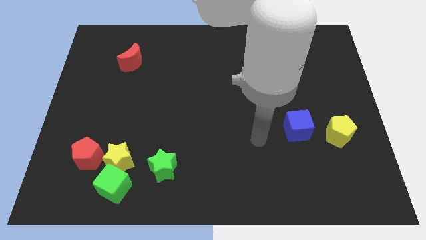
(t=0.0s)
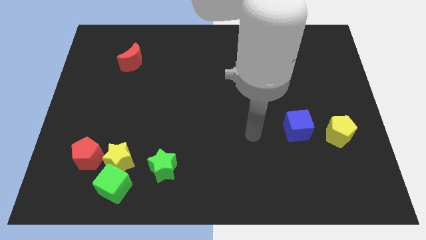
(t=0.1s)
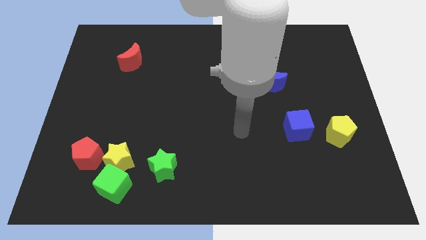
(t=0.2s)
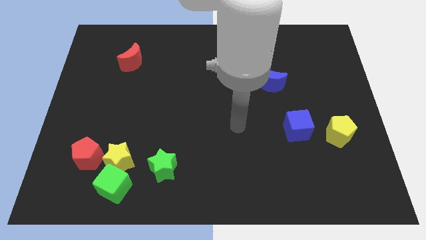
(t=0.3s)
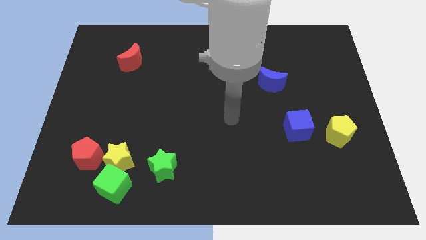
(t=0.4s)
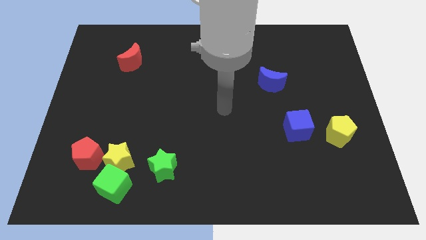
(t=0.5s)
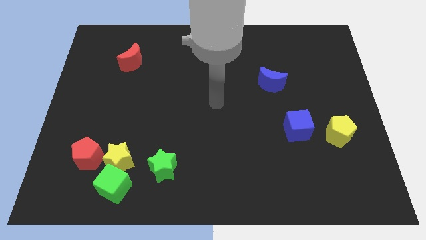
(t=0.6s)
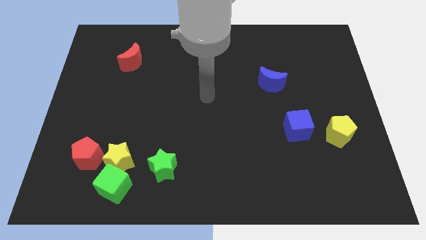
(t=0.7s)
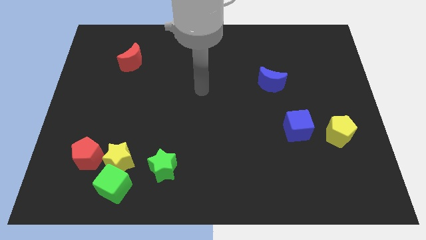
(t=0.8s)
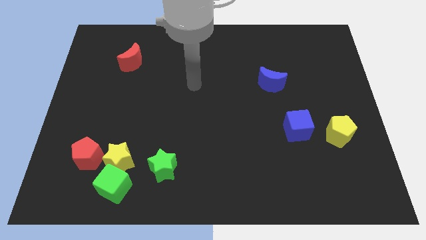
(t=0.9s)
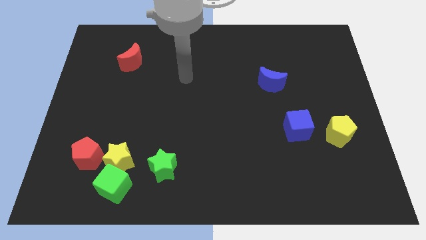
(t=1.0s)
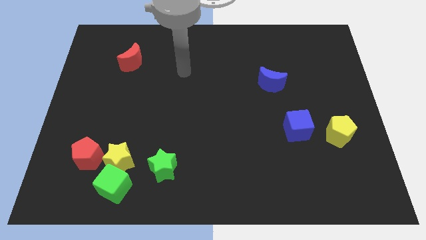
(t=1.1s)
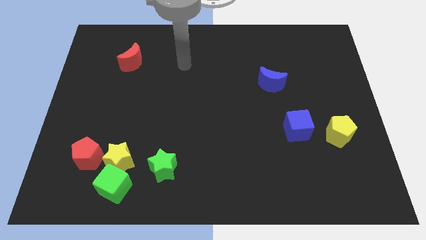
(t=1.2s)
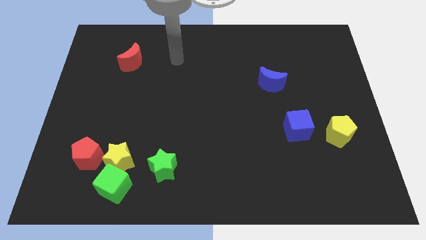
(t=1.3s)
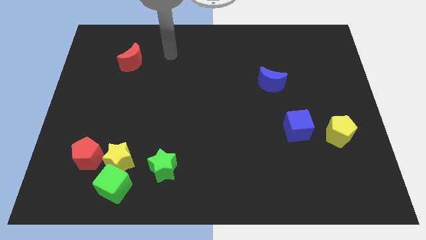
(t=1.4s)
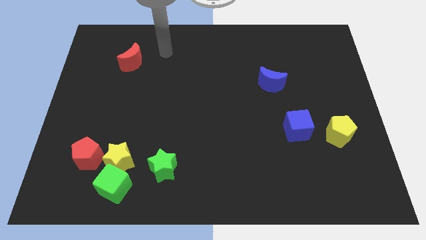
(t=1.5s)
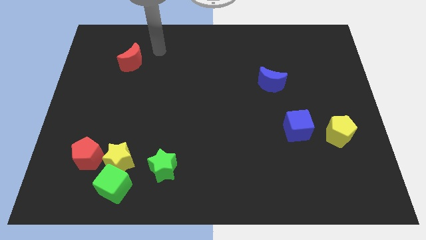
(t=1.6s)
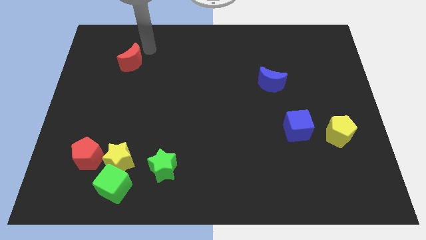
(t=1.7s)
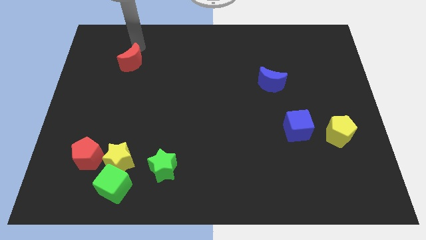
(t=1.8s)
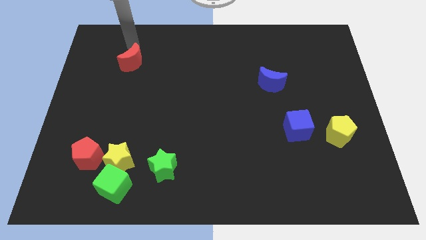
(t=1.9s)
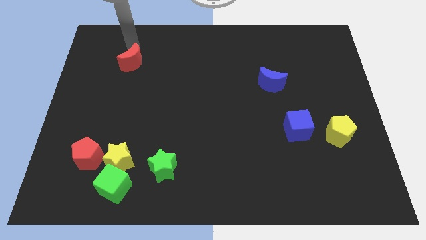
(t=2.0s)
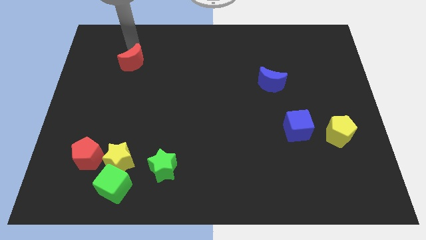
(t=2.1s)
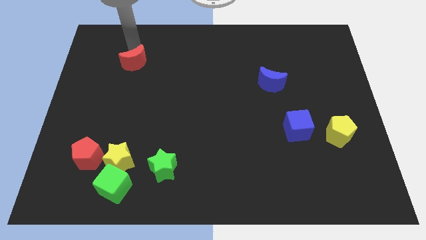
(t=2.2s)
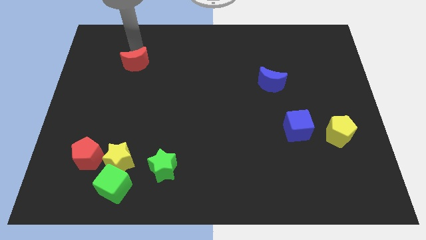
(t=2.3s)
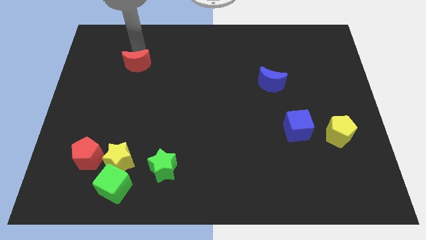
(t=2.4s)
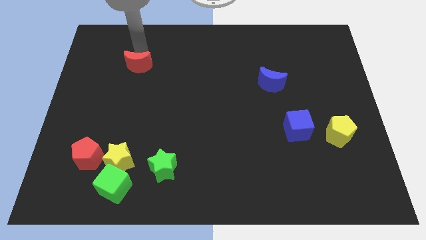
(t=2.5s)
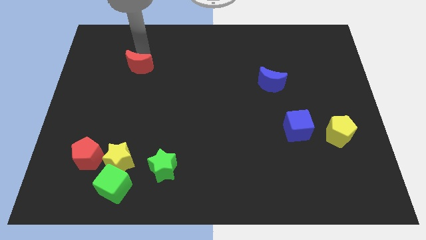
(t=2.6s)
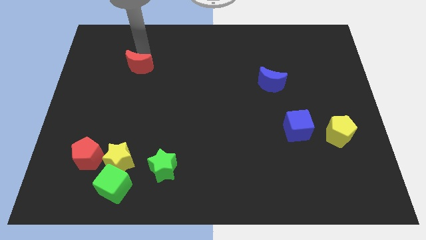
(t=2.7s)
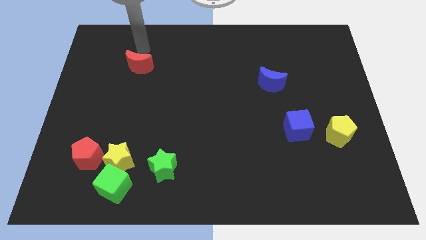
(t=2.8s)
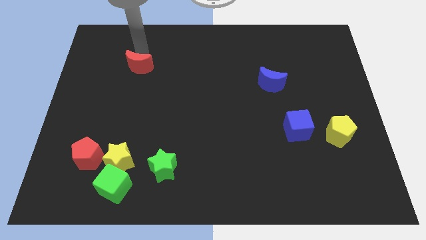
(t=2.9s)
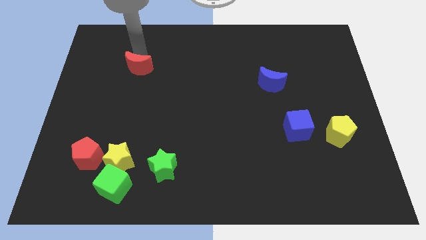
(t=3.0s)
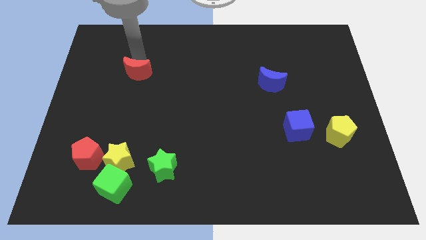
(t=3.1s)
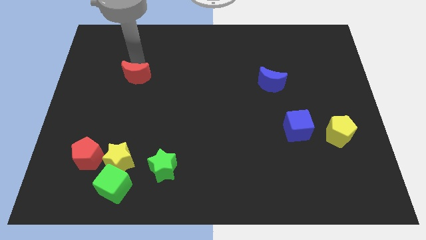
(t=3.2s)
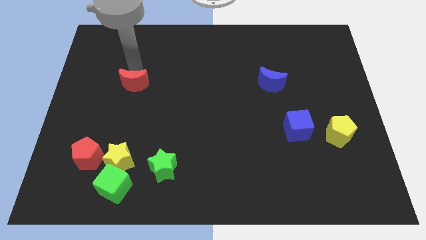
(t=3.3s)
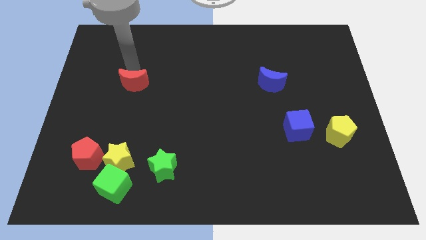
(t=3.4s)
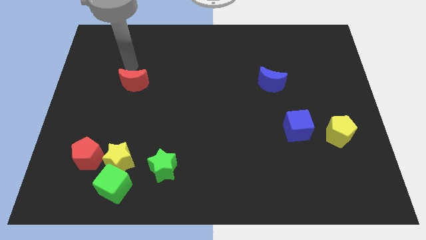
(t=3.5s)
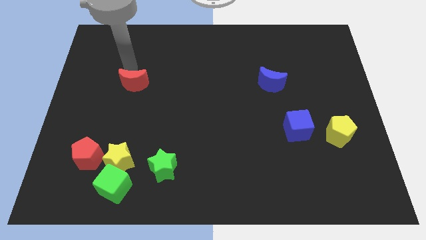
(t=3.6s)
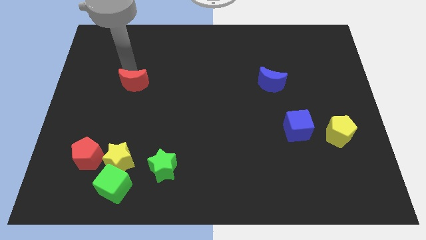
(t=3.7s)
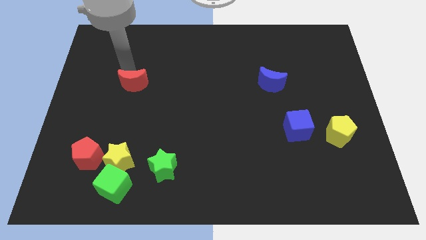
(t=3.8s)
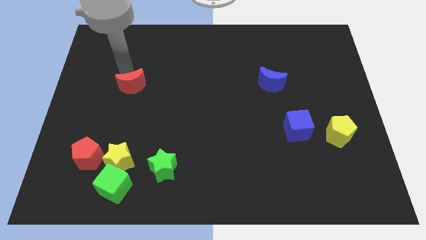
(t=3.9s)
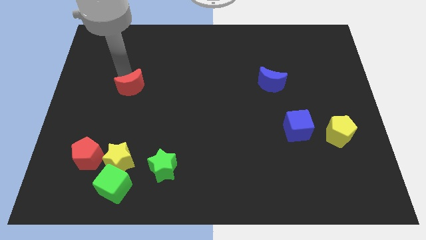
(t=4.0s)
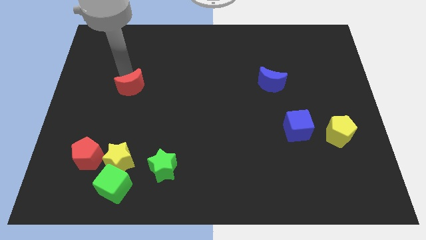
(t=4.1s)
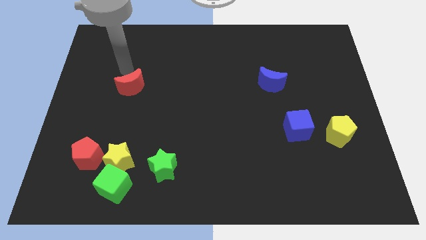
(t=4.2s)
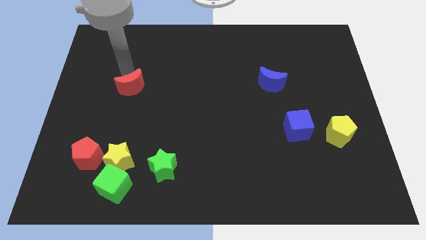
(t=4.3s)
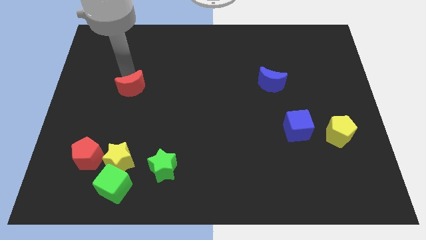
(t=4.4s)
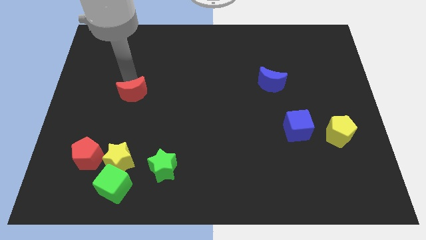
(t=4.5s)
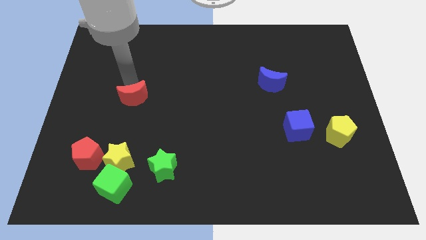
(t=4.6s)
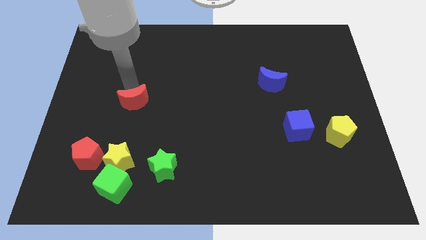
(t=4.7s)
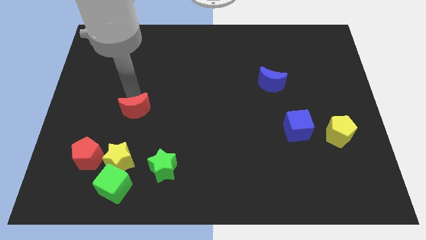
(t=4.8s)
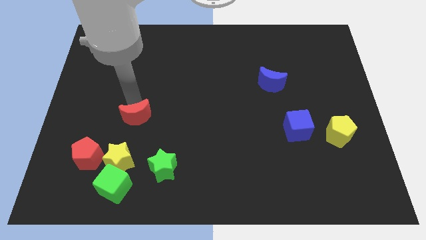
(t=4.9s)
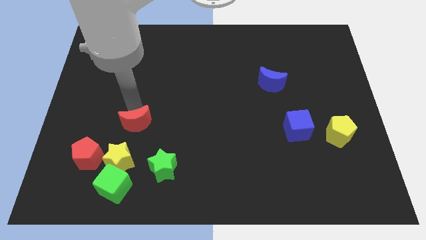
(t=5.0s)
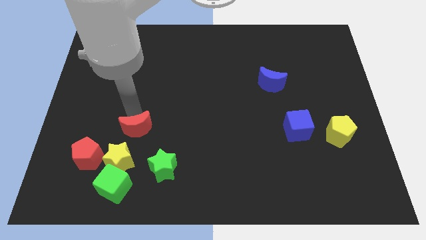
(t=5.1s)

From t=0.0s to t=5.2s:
move the red moon to the top right side of the yellow star

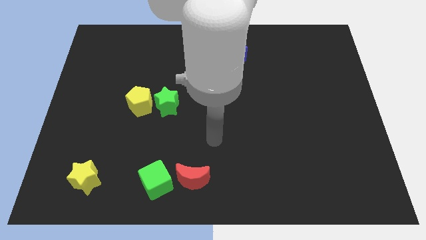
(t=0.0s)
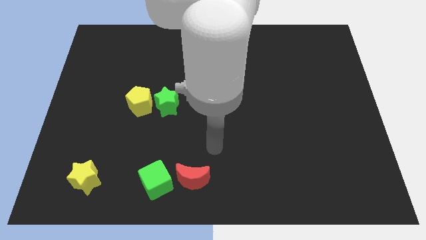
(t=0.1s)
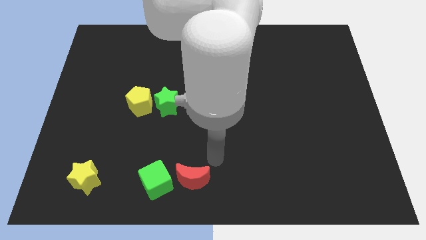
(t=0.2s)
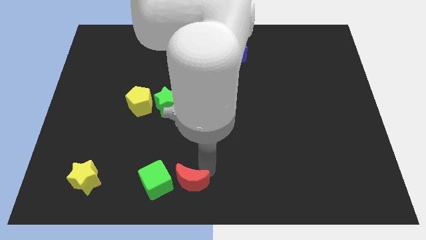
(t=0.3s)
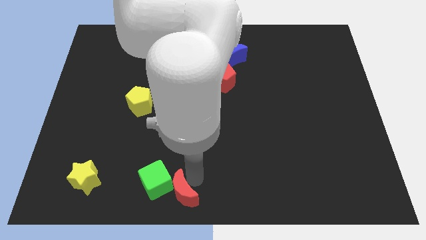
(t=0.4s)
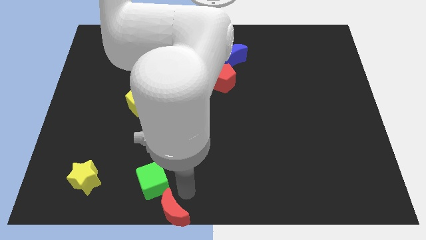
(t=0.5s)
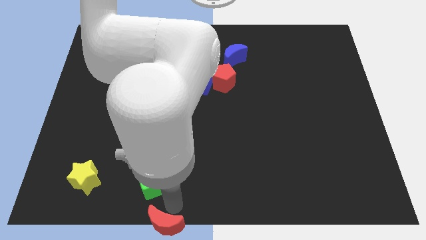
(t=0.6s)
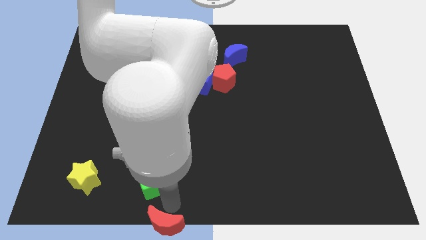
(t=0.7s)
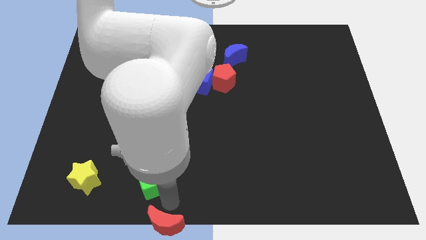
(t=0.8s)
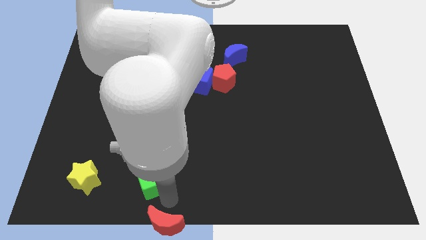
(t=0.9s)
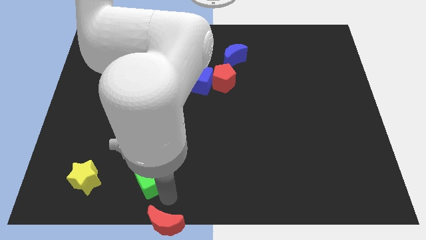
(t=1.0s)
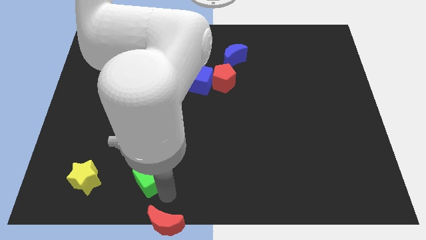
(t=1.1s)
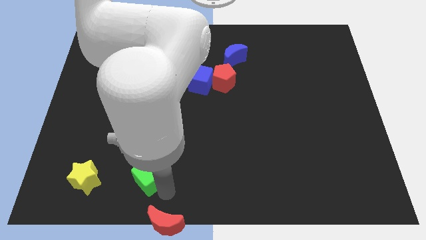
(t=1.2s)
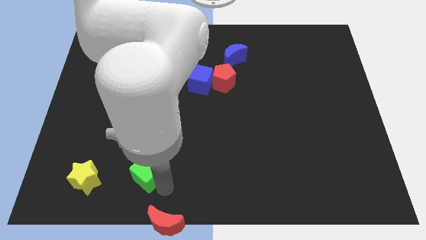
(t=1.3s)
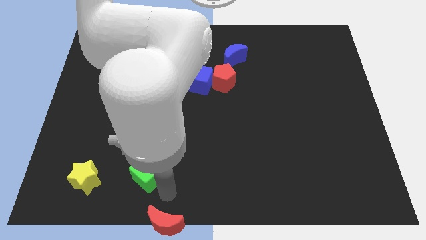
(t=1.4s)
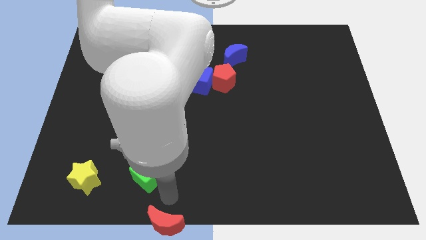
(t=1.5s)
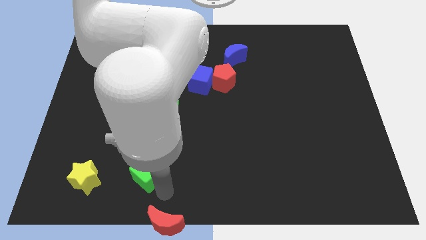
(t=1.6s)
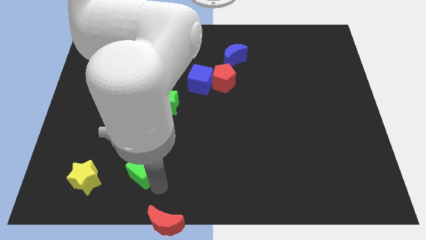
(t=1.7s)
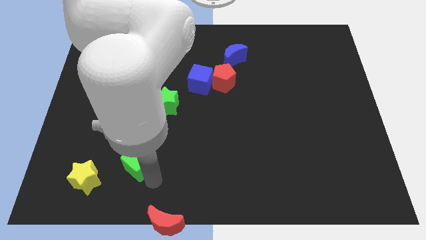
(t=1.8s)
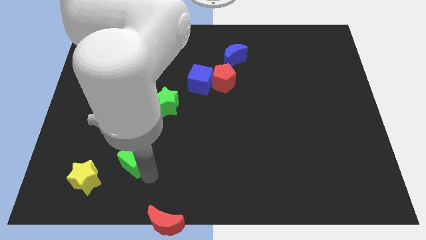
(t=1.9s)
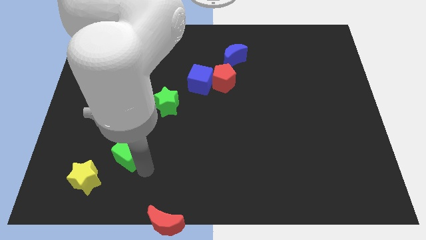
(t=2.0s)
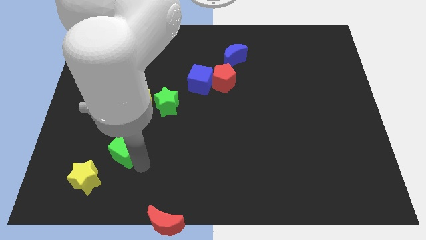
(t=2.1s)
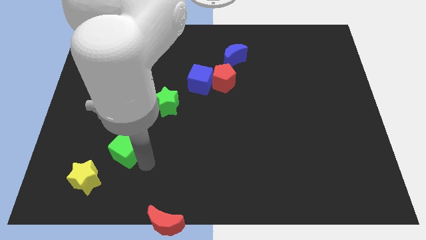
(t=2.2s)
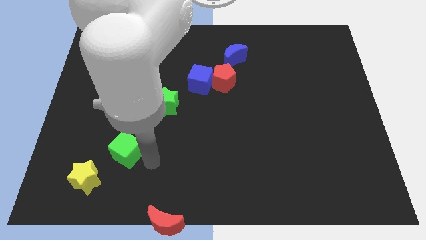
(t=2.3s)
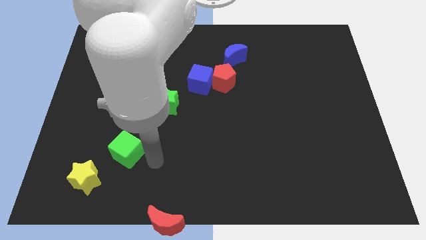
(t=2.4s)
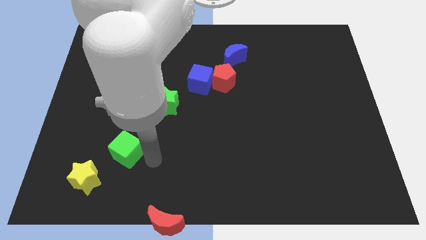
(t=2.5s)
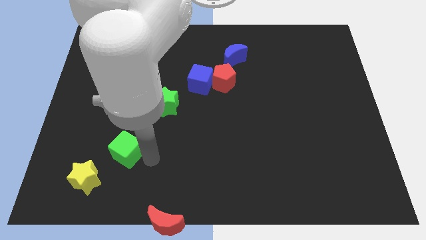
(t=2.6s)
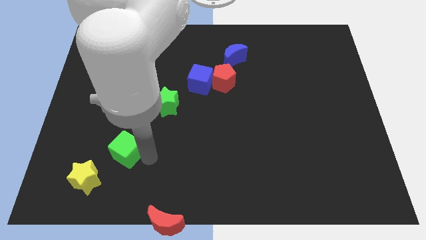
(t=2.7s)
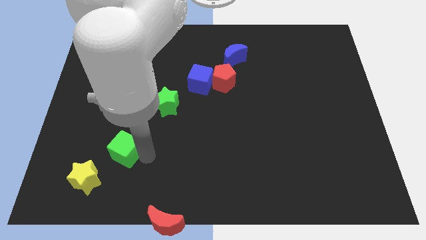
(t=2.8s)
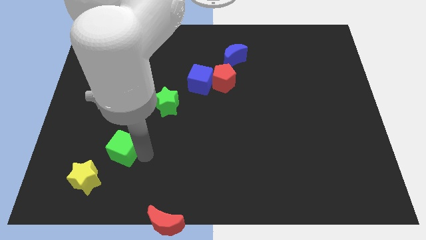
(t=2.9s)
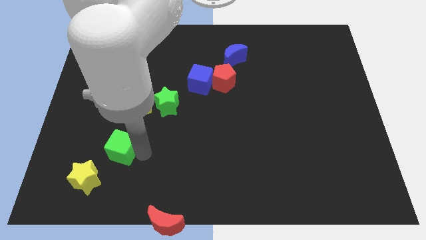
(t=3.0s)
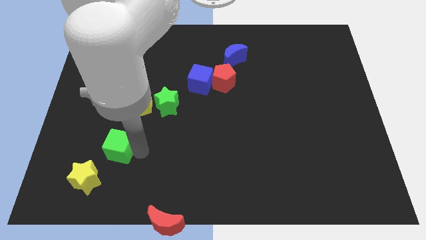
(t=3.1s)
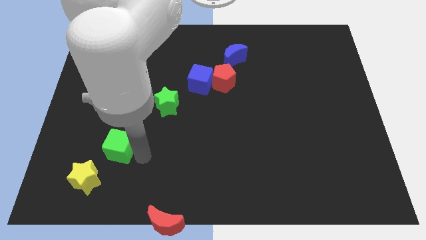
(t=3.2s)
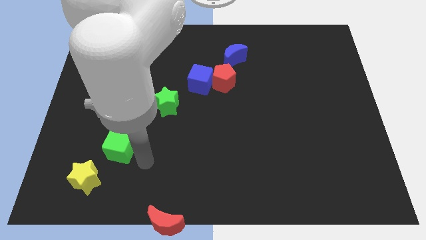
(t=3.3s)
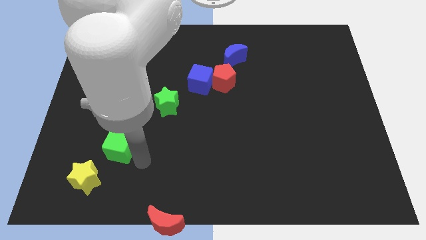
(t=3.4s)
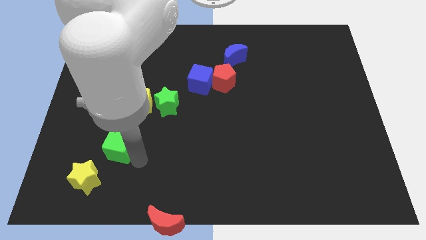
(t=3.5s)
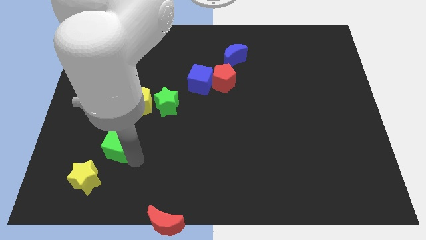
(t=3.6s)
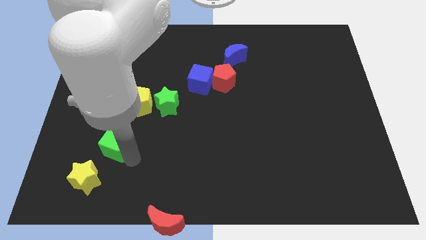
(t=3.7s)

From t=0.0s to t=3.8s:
move the green cube to the top of the yellow star
